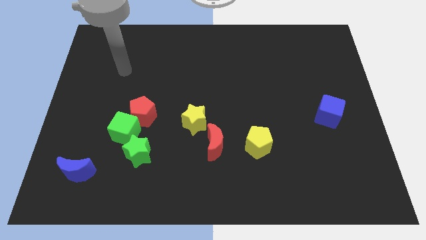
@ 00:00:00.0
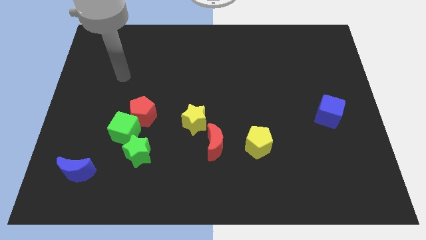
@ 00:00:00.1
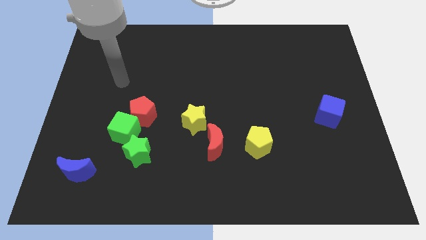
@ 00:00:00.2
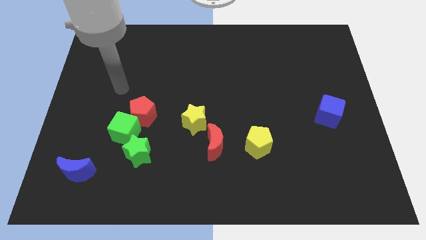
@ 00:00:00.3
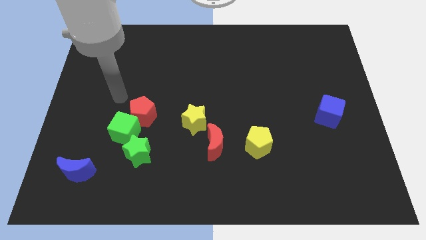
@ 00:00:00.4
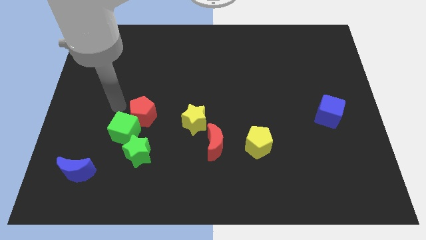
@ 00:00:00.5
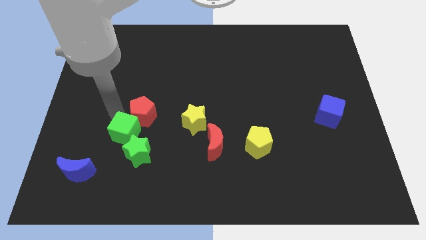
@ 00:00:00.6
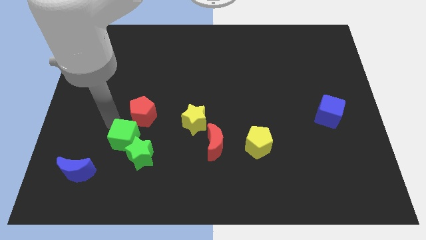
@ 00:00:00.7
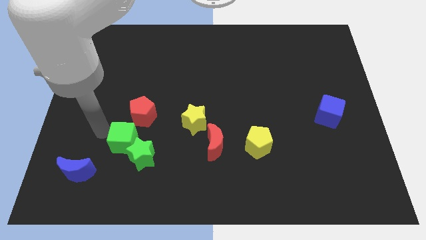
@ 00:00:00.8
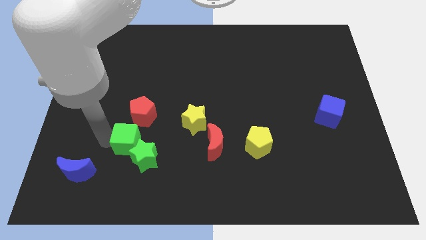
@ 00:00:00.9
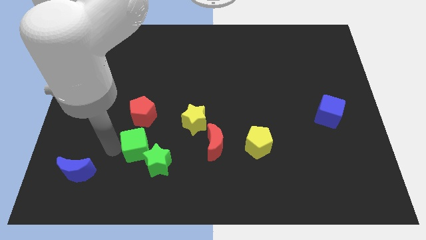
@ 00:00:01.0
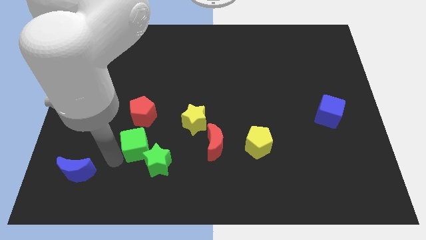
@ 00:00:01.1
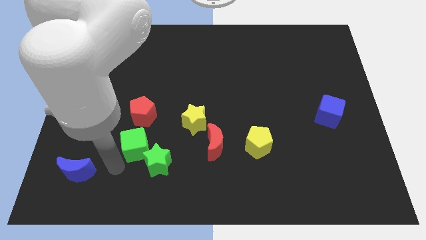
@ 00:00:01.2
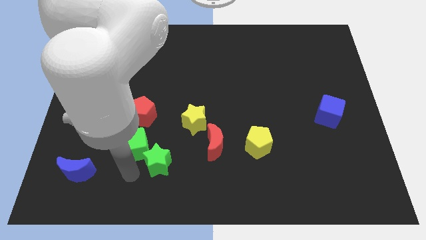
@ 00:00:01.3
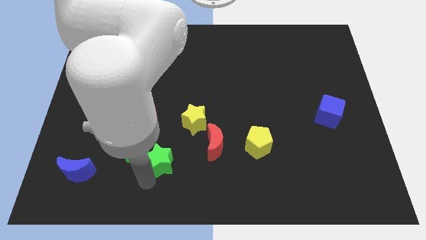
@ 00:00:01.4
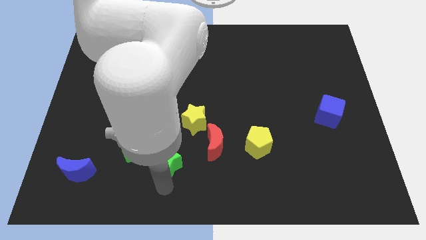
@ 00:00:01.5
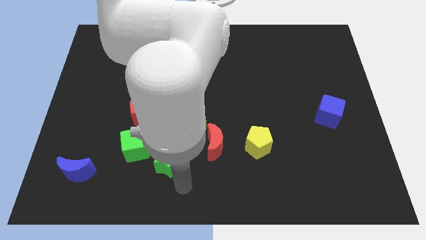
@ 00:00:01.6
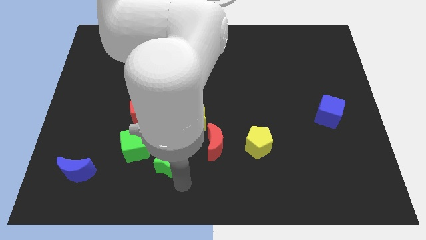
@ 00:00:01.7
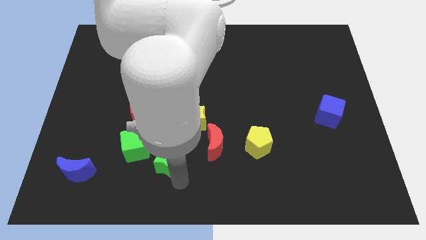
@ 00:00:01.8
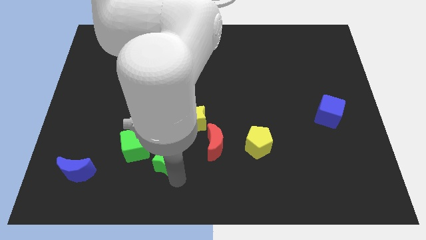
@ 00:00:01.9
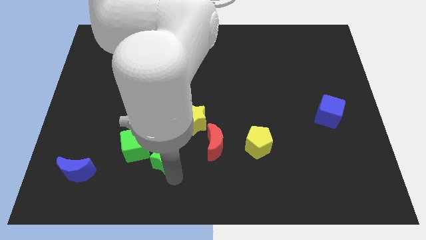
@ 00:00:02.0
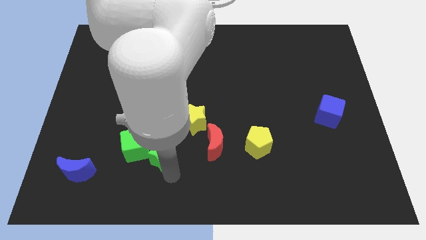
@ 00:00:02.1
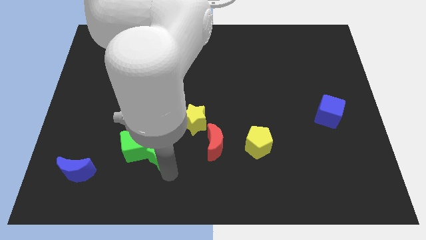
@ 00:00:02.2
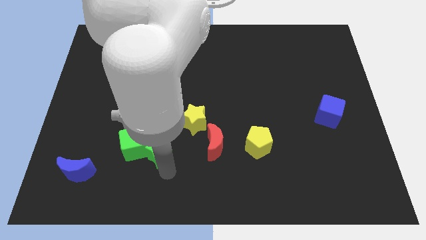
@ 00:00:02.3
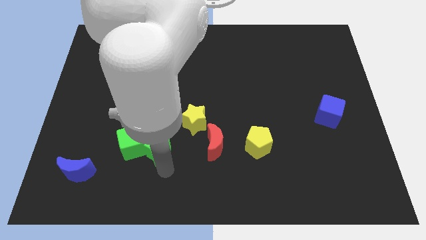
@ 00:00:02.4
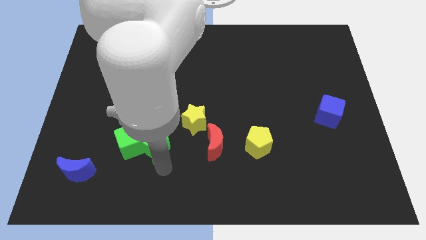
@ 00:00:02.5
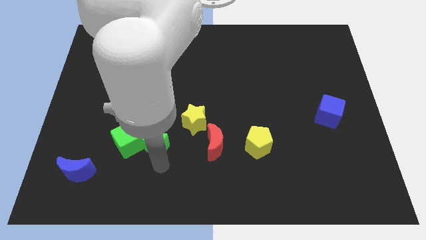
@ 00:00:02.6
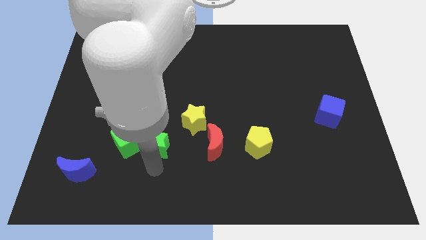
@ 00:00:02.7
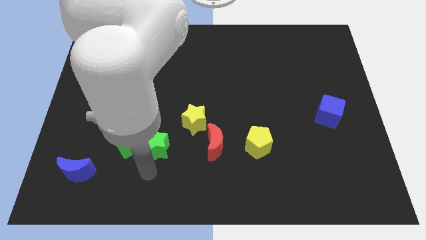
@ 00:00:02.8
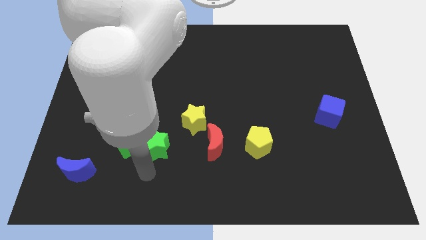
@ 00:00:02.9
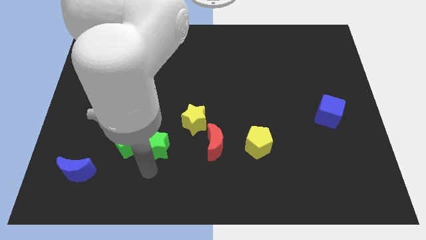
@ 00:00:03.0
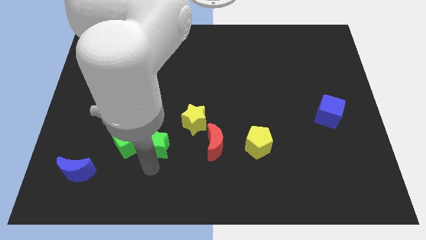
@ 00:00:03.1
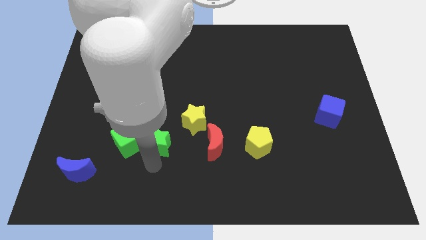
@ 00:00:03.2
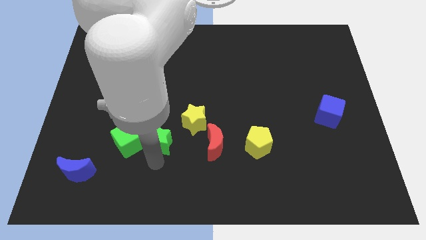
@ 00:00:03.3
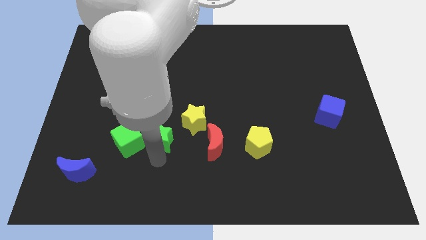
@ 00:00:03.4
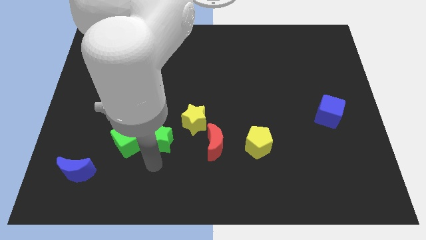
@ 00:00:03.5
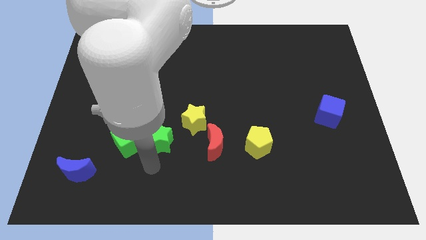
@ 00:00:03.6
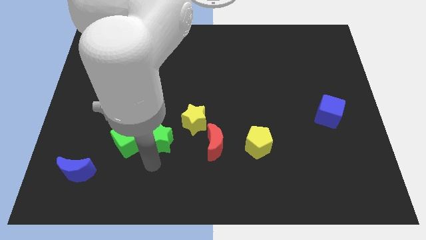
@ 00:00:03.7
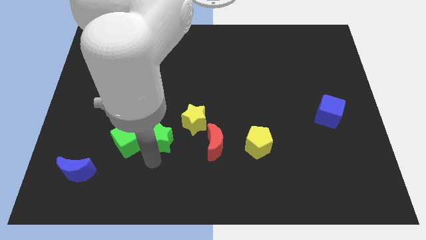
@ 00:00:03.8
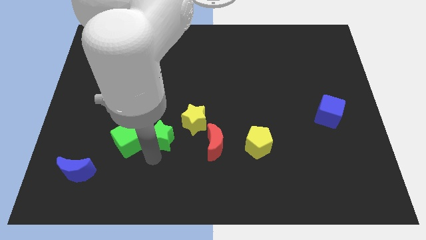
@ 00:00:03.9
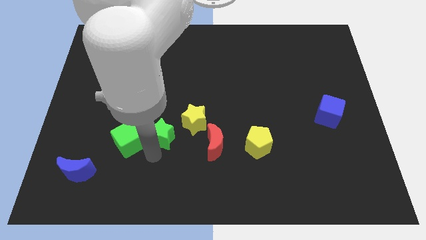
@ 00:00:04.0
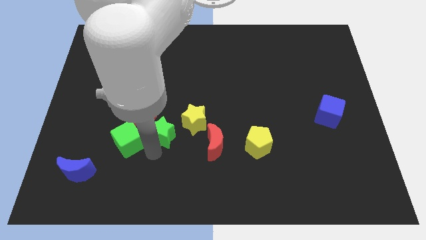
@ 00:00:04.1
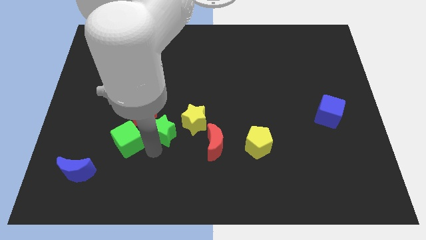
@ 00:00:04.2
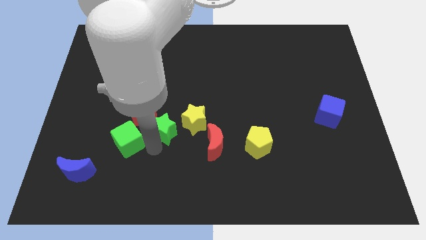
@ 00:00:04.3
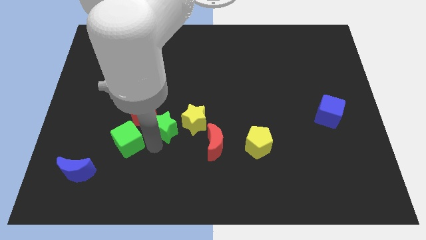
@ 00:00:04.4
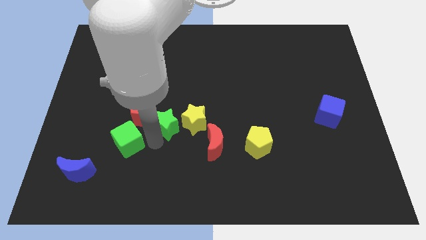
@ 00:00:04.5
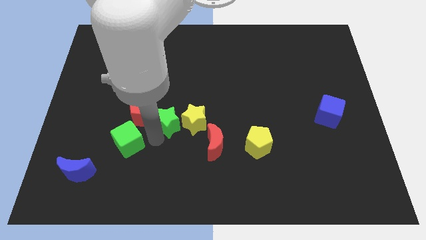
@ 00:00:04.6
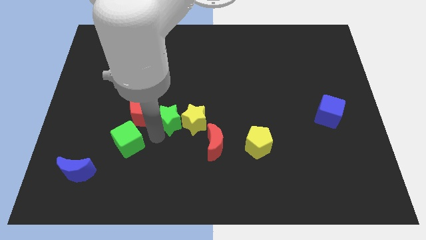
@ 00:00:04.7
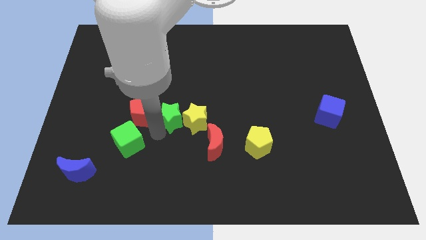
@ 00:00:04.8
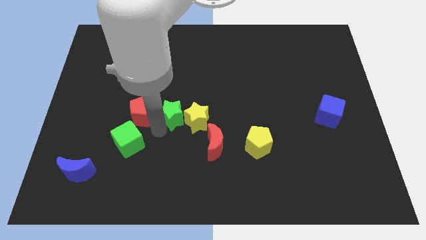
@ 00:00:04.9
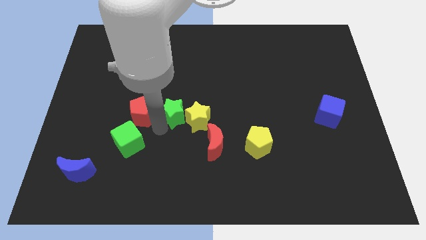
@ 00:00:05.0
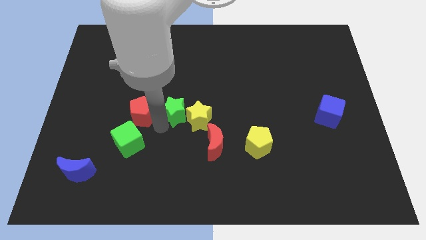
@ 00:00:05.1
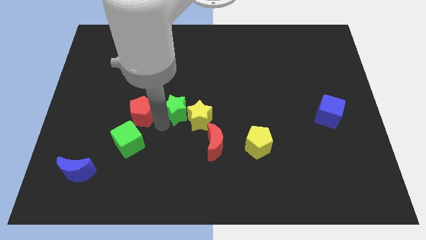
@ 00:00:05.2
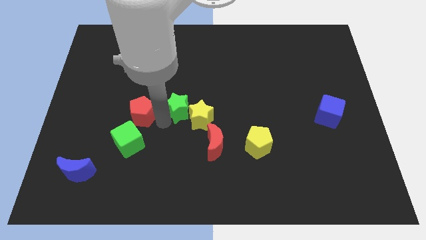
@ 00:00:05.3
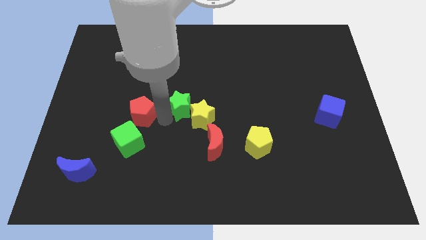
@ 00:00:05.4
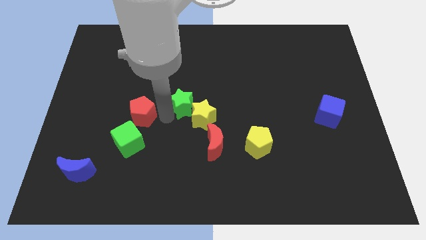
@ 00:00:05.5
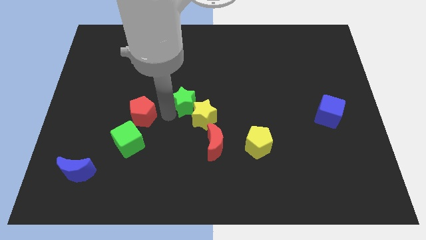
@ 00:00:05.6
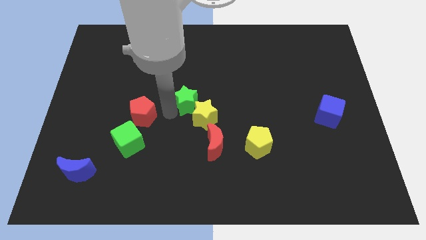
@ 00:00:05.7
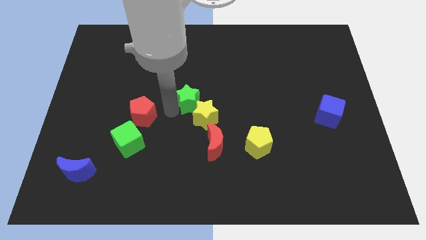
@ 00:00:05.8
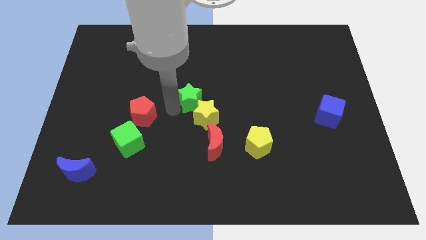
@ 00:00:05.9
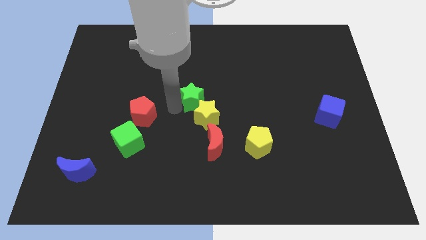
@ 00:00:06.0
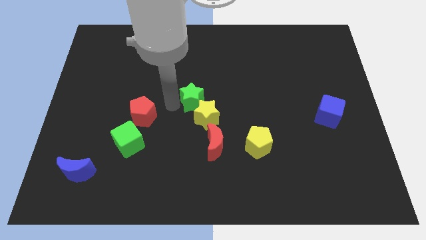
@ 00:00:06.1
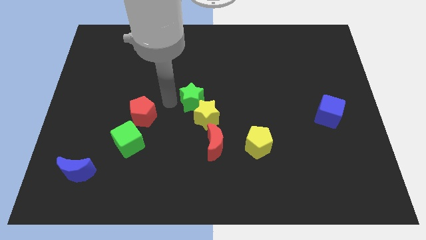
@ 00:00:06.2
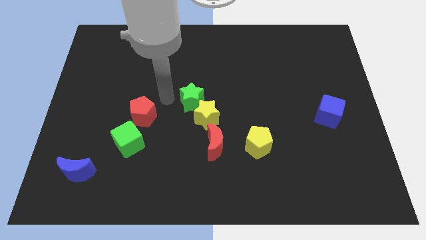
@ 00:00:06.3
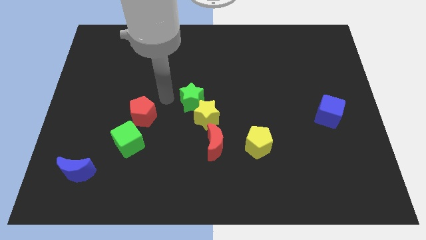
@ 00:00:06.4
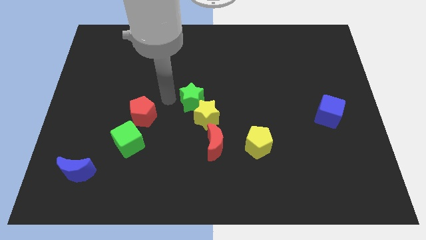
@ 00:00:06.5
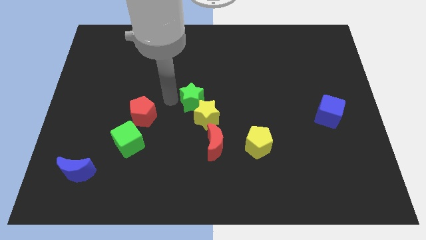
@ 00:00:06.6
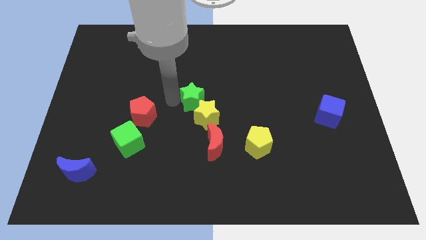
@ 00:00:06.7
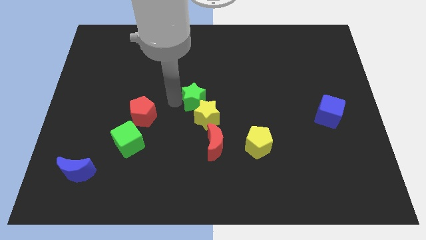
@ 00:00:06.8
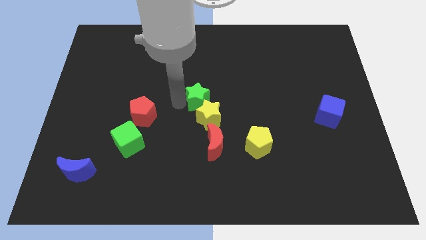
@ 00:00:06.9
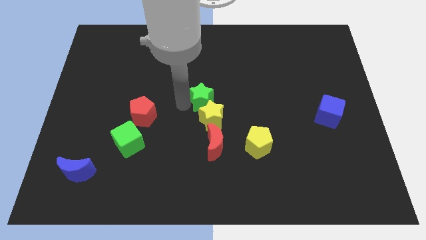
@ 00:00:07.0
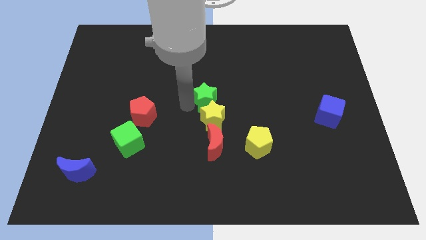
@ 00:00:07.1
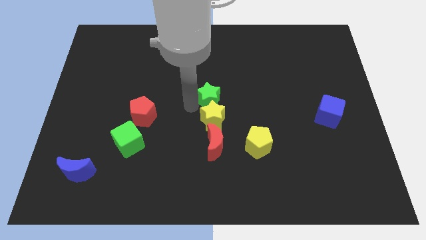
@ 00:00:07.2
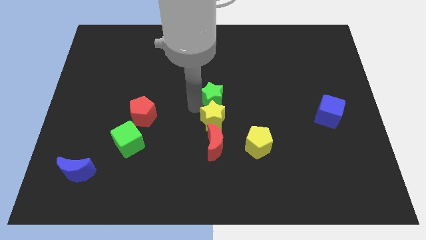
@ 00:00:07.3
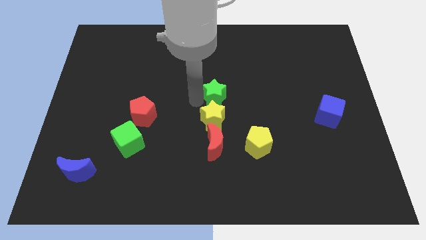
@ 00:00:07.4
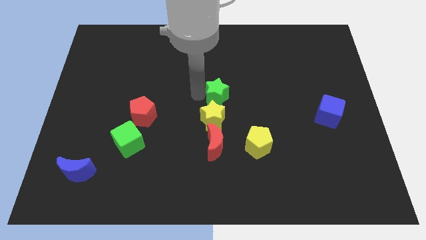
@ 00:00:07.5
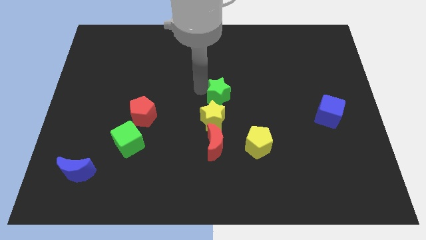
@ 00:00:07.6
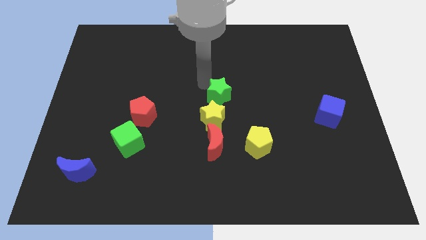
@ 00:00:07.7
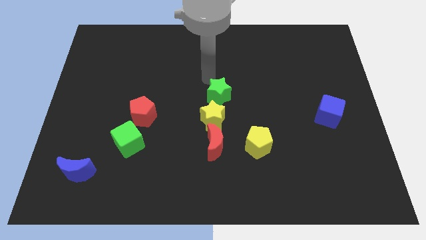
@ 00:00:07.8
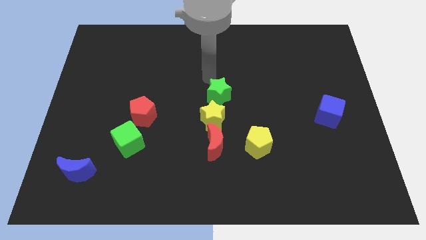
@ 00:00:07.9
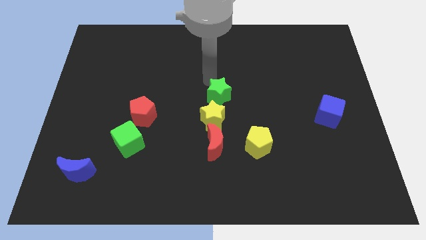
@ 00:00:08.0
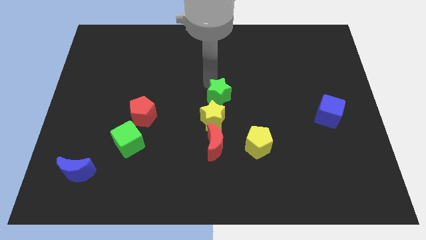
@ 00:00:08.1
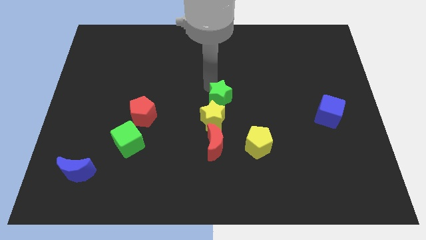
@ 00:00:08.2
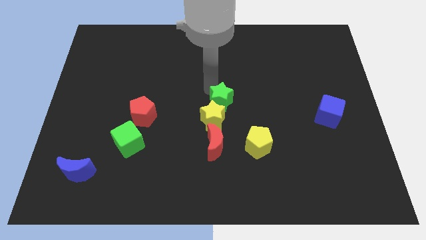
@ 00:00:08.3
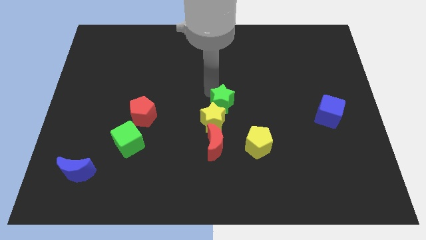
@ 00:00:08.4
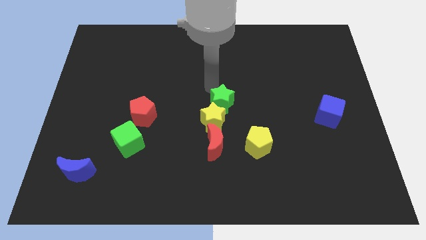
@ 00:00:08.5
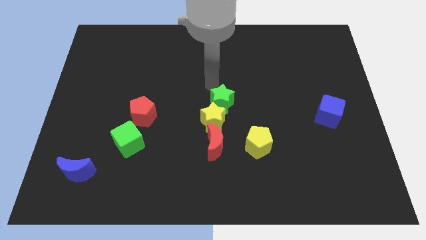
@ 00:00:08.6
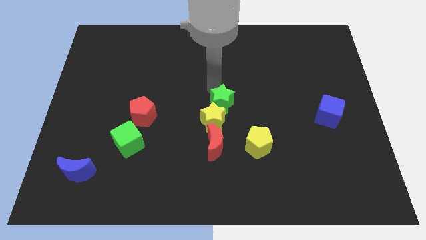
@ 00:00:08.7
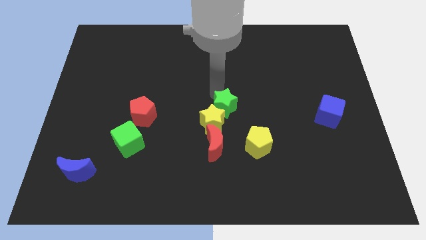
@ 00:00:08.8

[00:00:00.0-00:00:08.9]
put the green star diagonally up and to the left of the yellow pentagon
